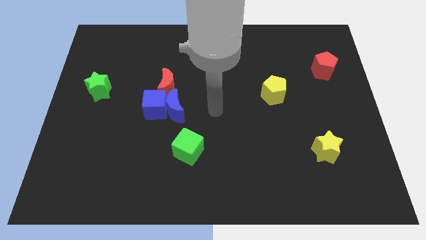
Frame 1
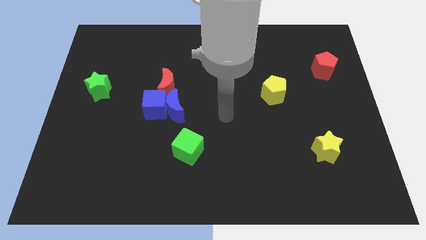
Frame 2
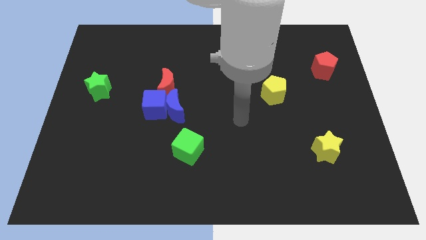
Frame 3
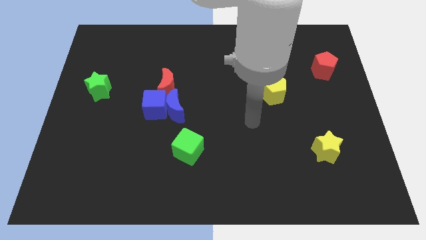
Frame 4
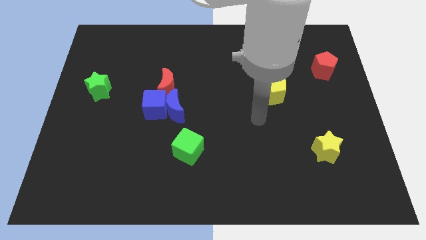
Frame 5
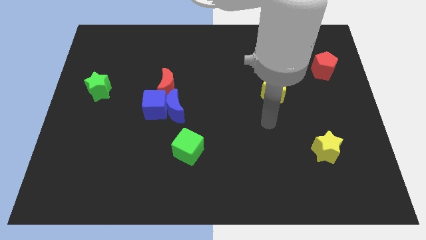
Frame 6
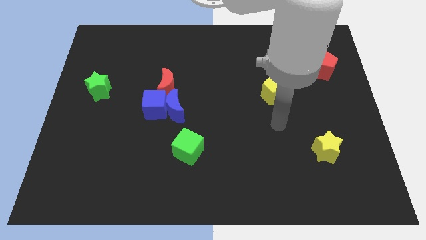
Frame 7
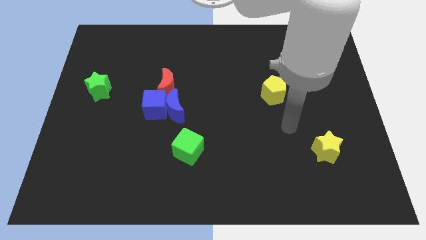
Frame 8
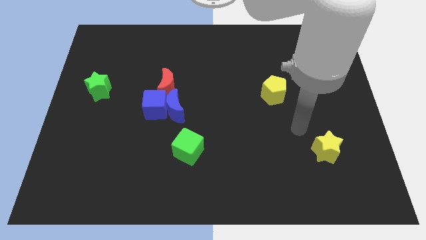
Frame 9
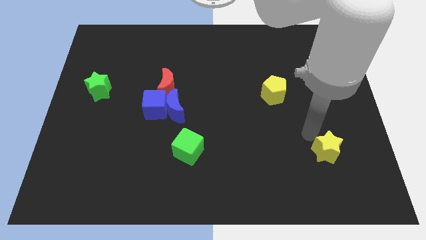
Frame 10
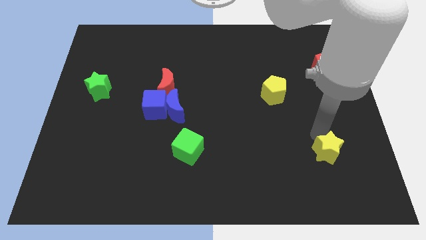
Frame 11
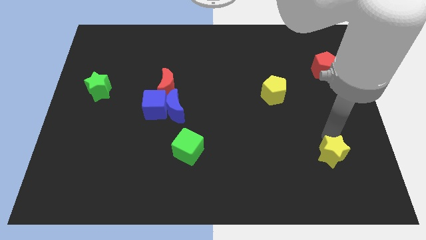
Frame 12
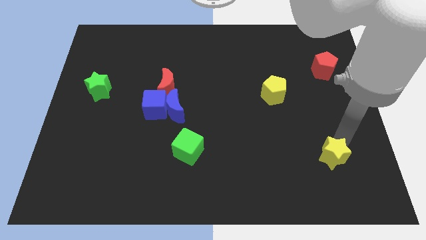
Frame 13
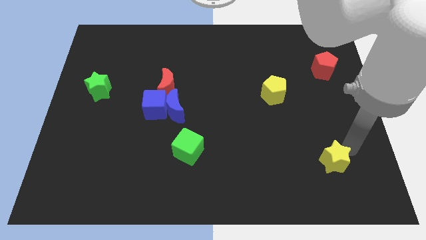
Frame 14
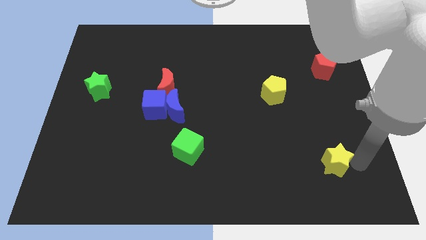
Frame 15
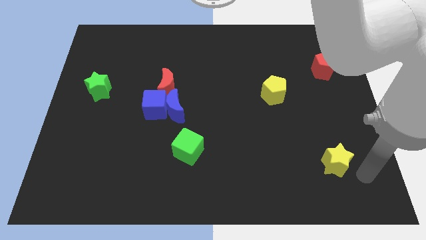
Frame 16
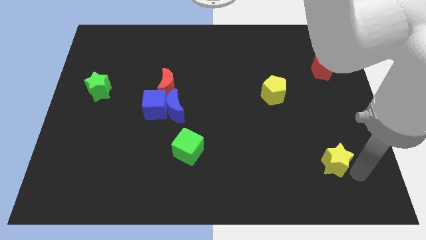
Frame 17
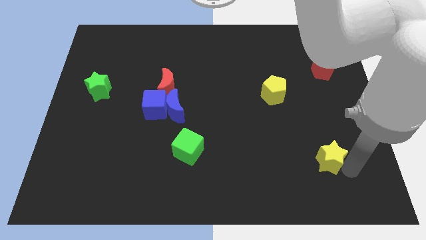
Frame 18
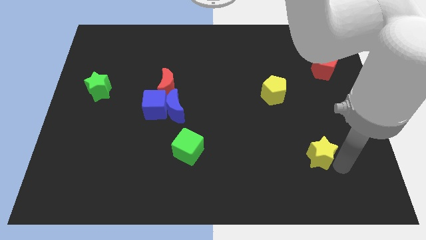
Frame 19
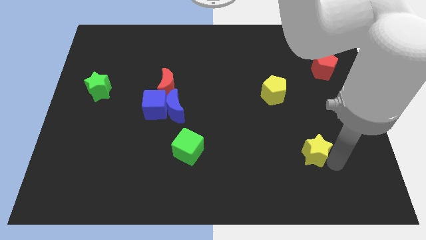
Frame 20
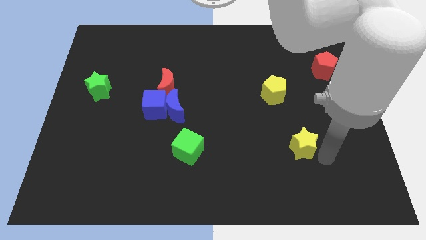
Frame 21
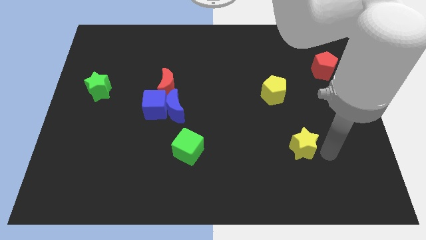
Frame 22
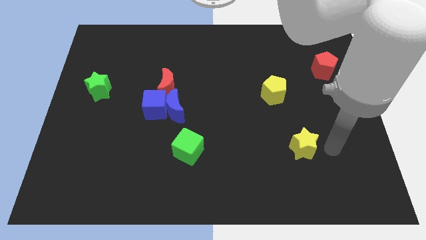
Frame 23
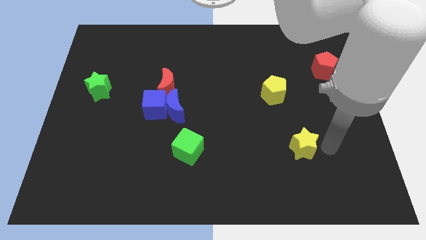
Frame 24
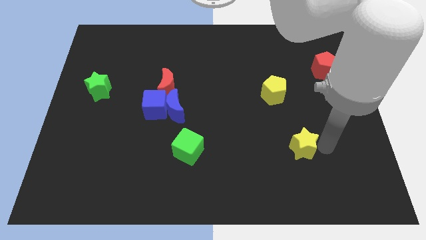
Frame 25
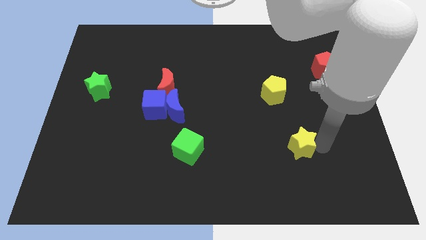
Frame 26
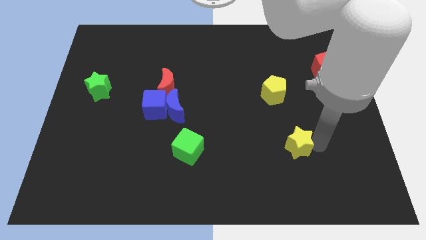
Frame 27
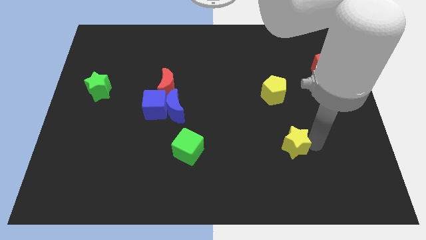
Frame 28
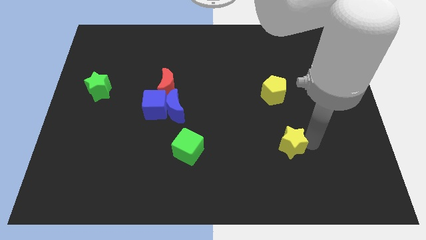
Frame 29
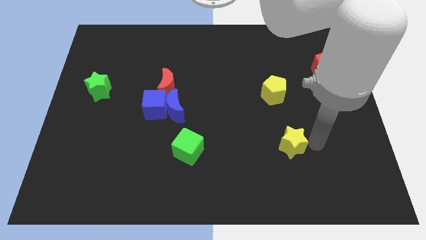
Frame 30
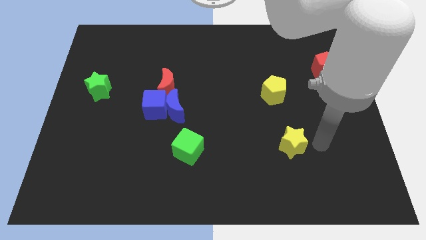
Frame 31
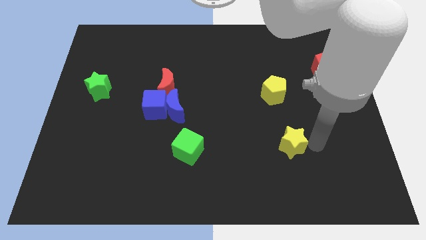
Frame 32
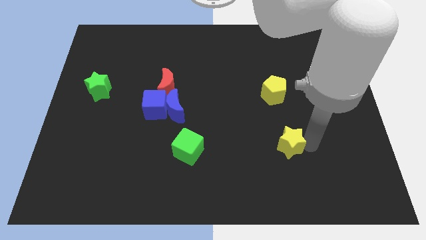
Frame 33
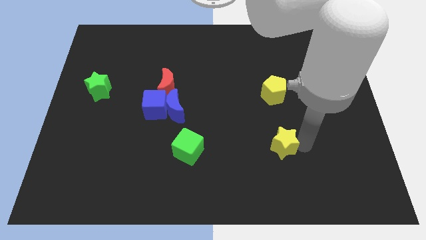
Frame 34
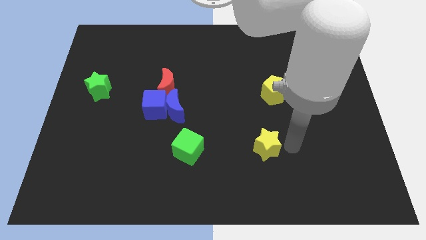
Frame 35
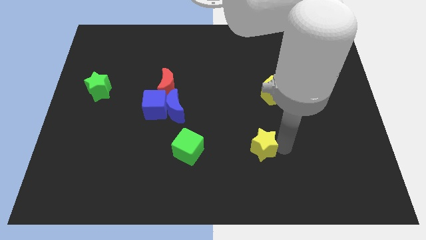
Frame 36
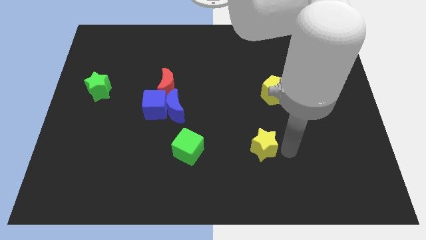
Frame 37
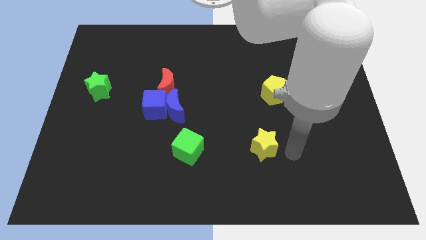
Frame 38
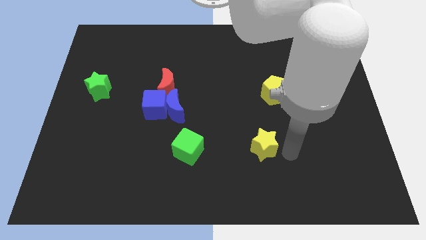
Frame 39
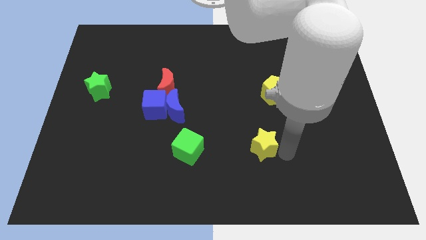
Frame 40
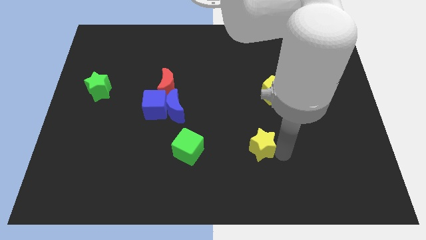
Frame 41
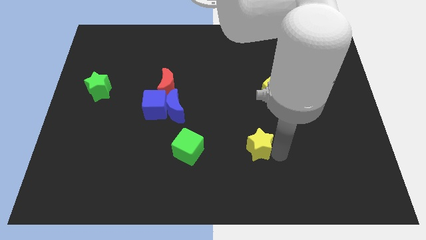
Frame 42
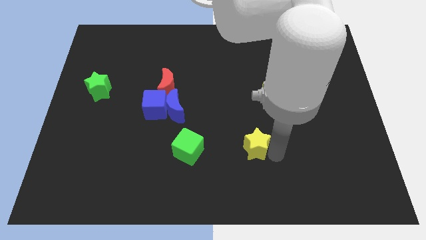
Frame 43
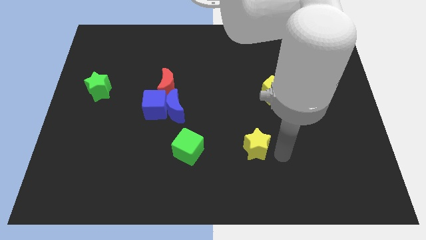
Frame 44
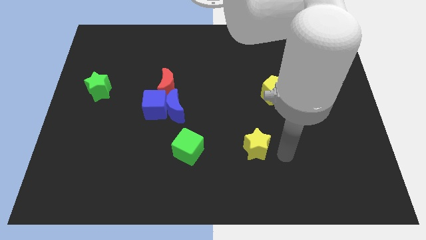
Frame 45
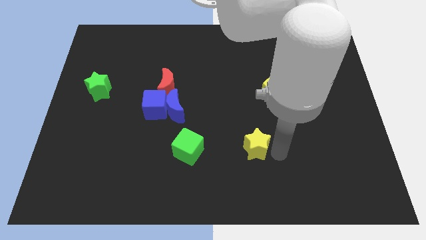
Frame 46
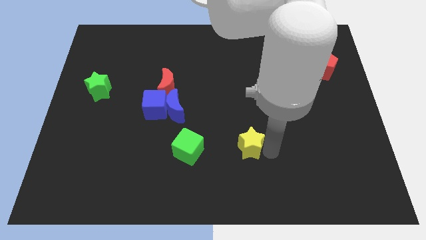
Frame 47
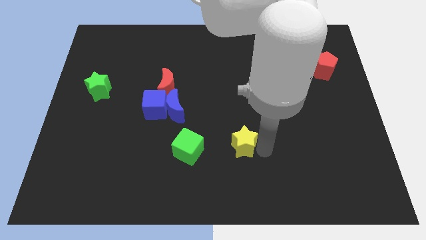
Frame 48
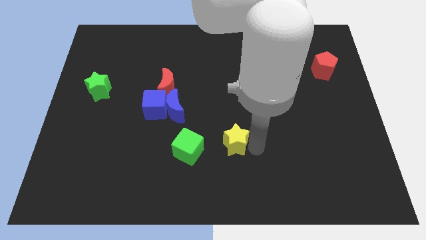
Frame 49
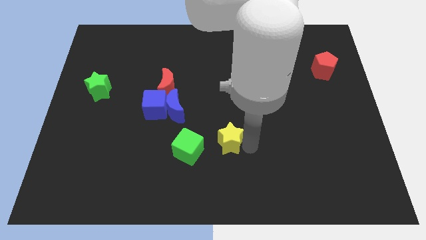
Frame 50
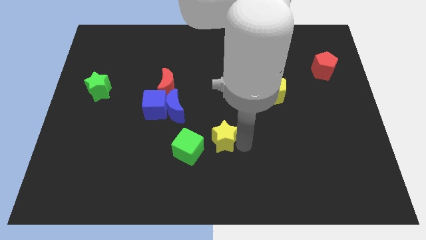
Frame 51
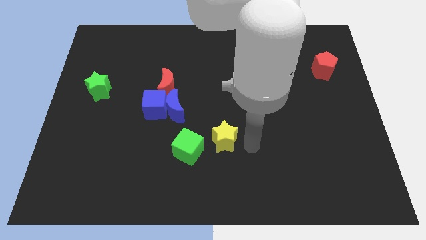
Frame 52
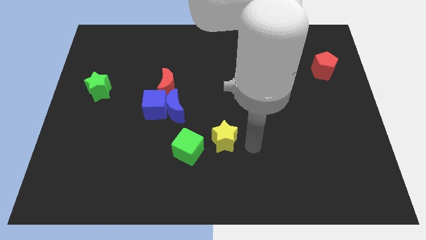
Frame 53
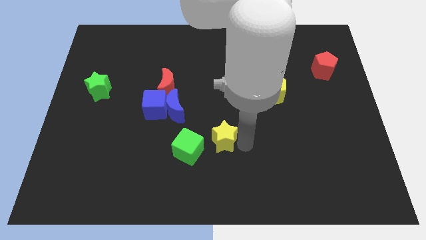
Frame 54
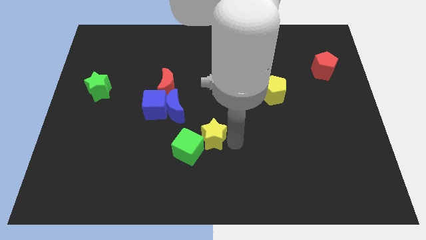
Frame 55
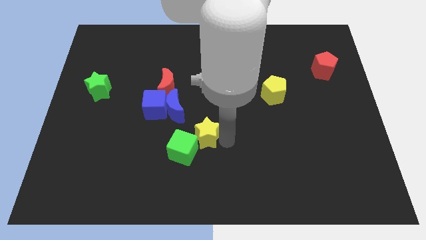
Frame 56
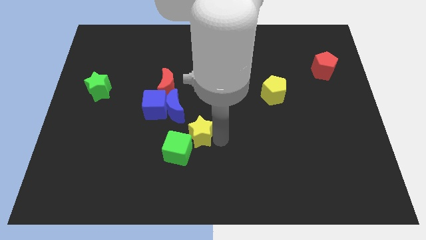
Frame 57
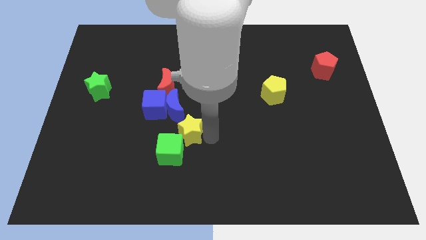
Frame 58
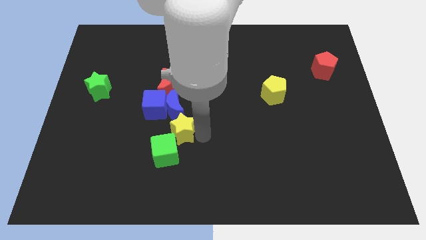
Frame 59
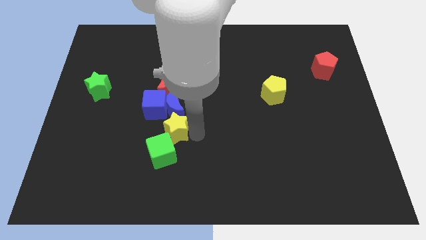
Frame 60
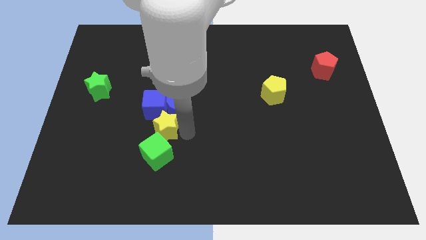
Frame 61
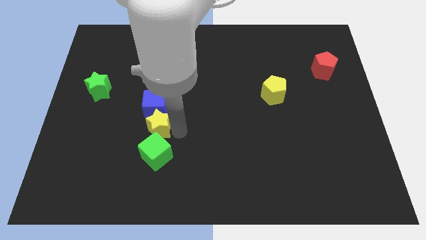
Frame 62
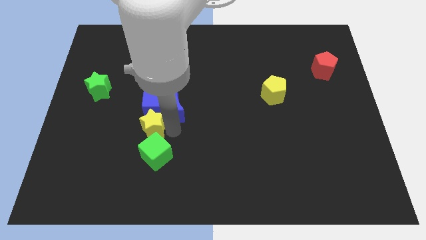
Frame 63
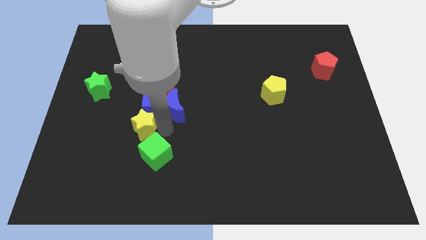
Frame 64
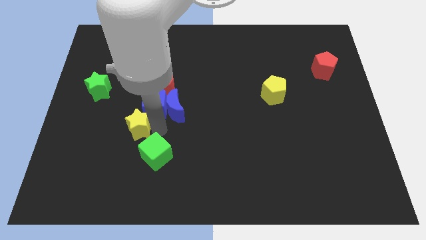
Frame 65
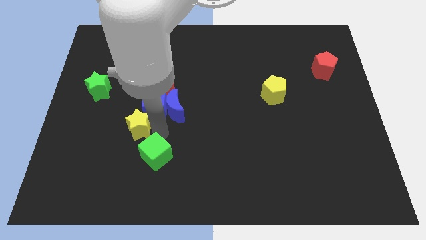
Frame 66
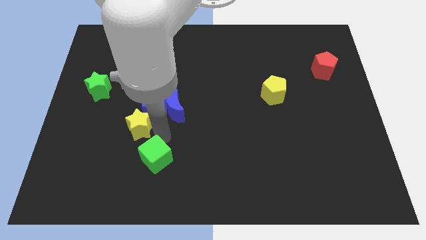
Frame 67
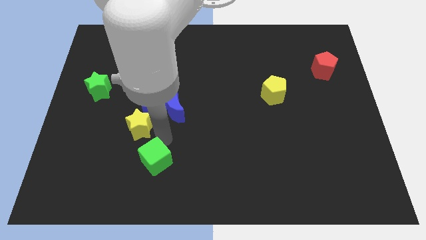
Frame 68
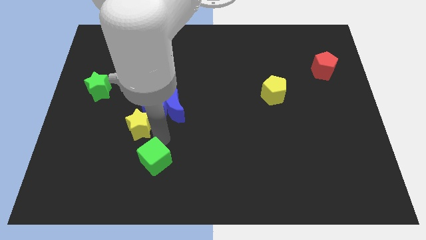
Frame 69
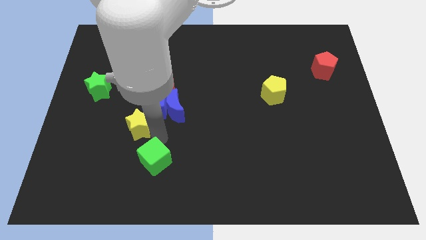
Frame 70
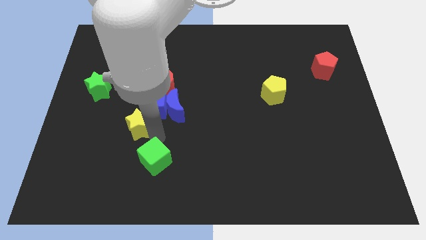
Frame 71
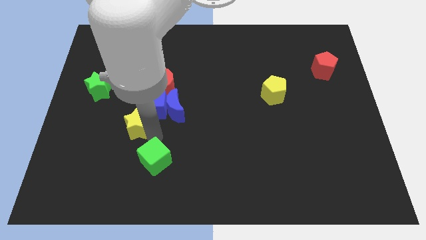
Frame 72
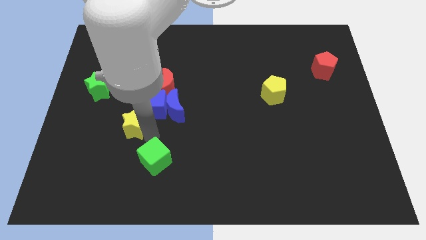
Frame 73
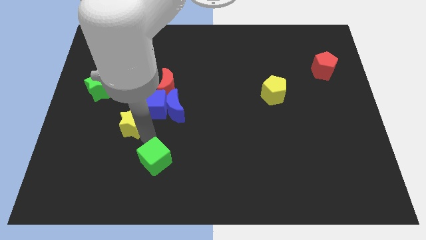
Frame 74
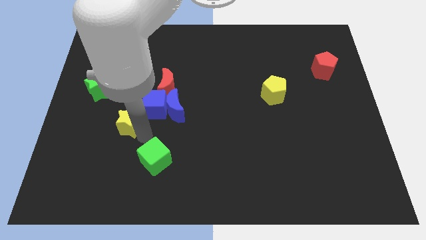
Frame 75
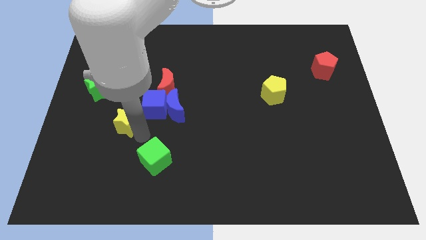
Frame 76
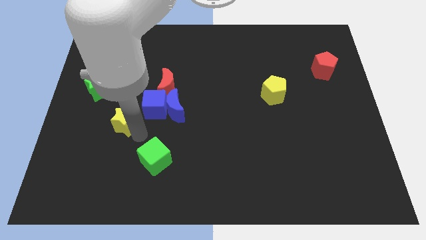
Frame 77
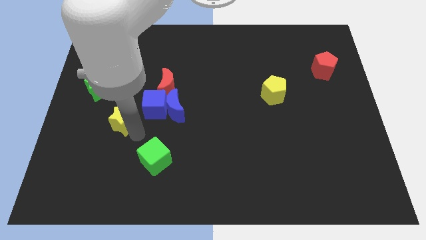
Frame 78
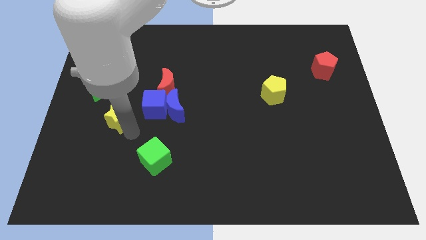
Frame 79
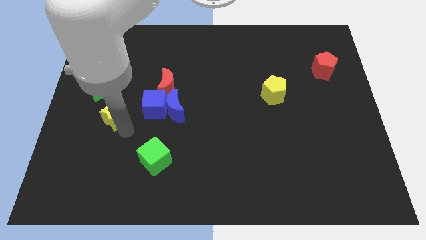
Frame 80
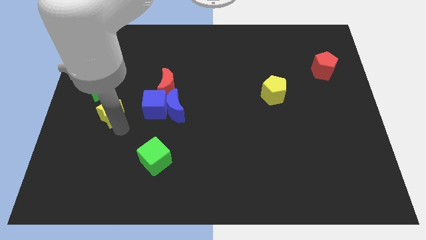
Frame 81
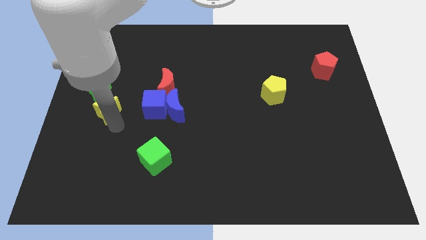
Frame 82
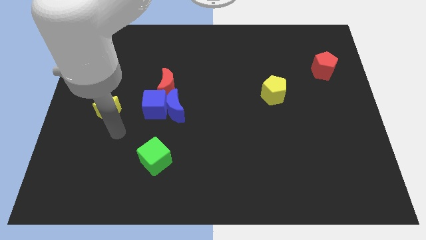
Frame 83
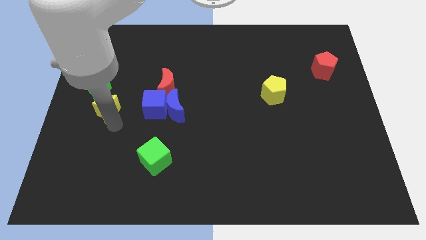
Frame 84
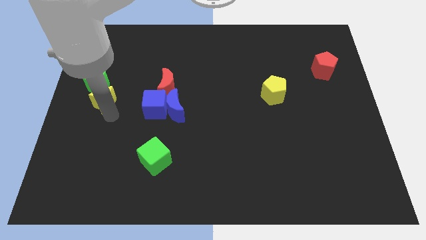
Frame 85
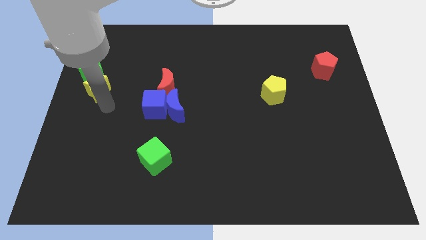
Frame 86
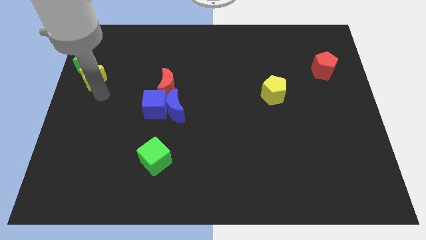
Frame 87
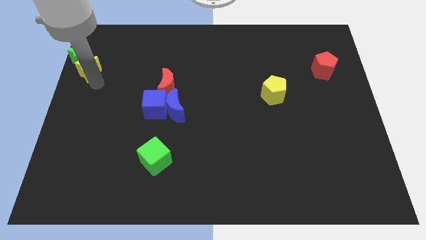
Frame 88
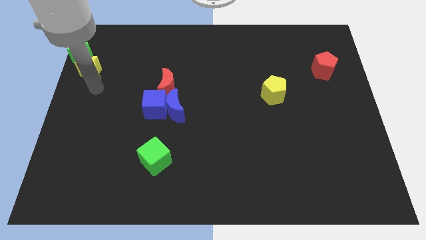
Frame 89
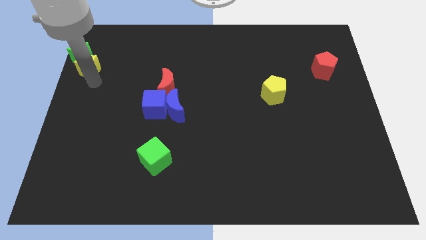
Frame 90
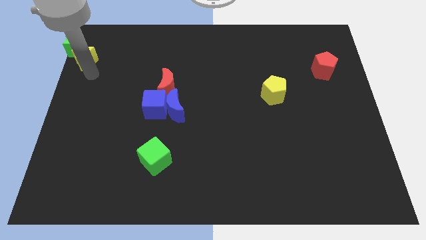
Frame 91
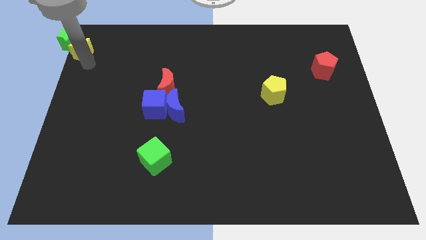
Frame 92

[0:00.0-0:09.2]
push the yellow star to the upper left corner
